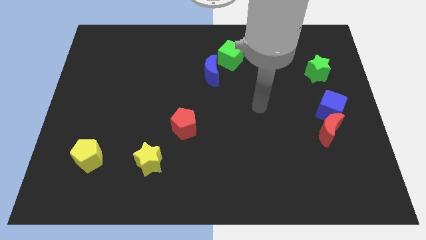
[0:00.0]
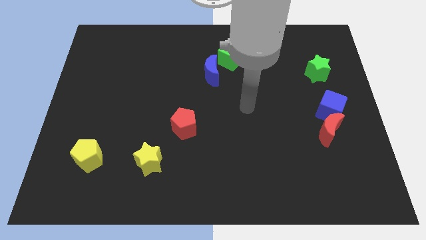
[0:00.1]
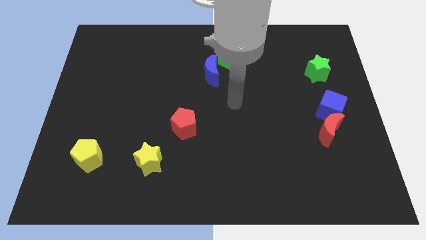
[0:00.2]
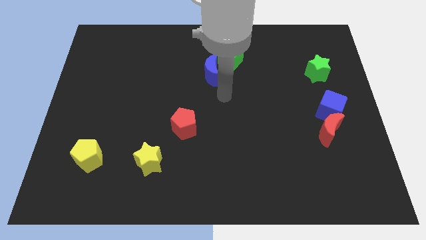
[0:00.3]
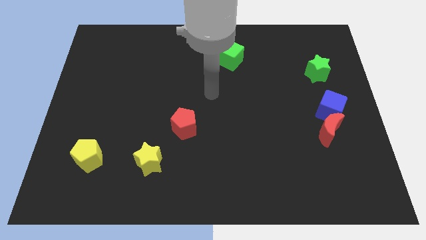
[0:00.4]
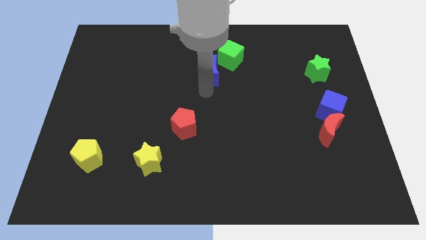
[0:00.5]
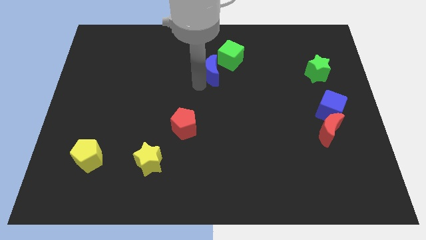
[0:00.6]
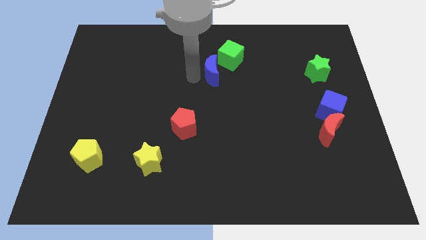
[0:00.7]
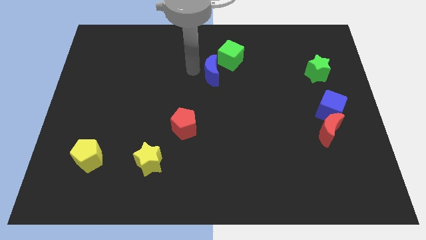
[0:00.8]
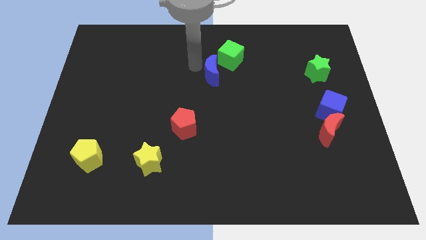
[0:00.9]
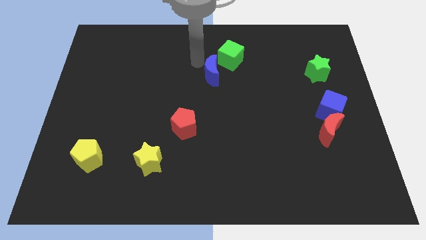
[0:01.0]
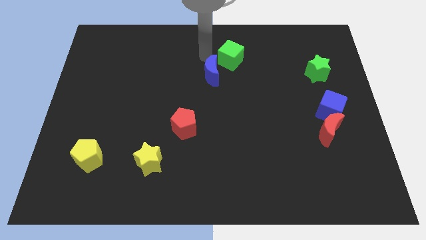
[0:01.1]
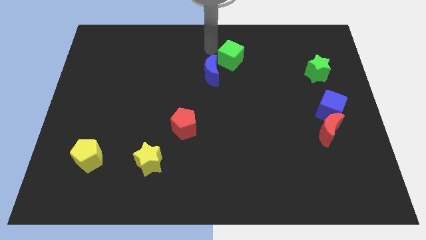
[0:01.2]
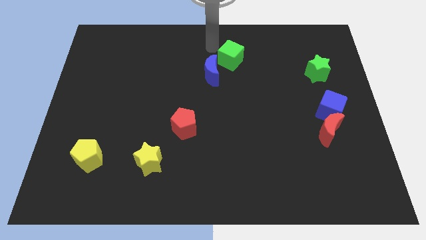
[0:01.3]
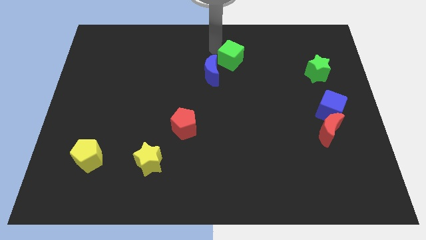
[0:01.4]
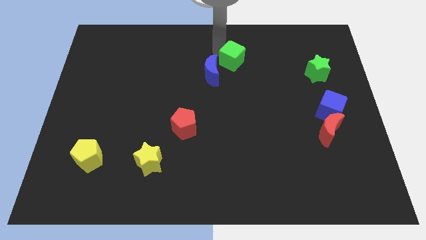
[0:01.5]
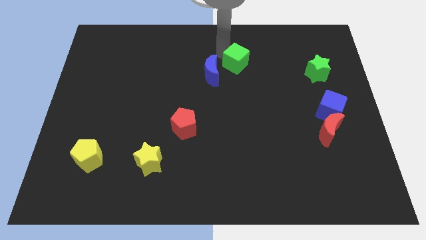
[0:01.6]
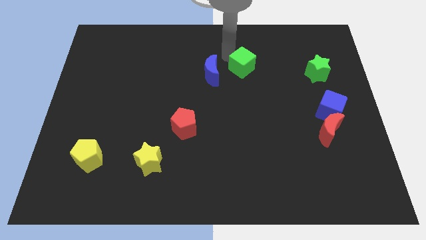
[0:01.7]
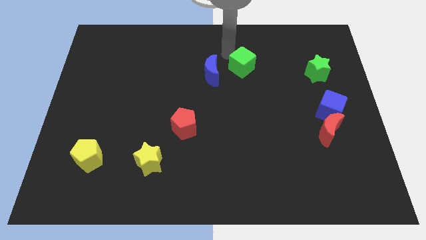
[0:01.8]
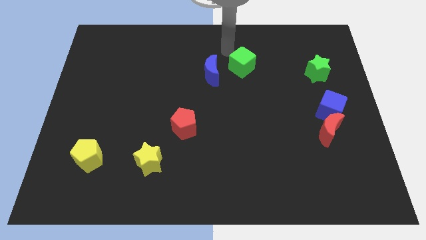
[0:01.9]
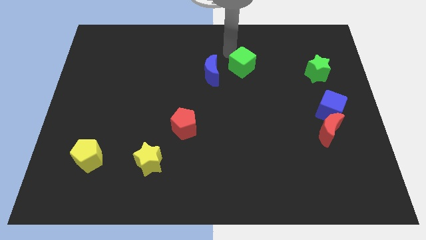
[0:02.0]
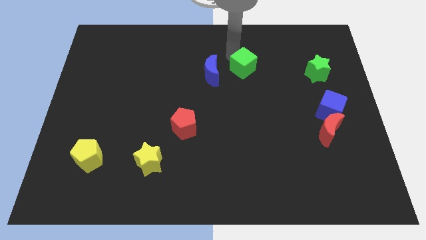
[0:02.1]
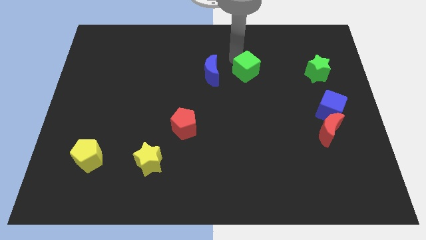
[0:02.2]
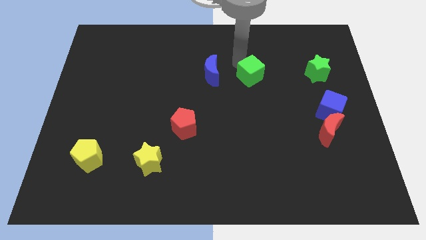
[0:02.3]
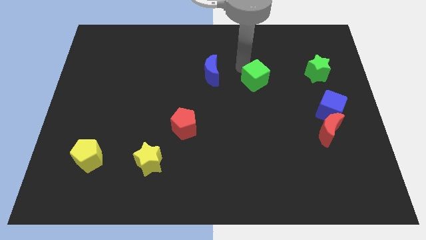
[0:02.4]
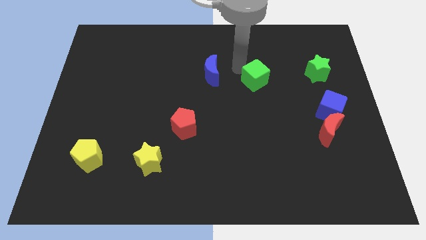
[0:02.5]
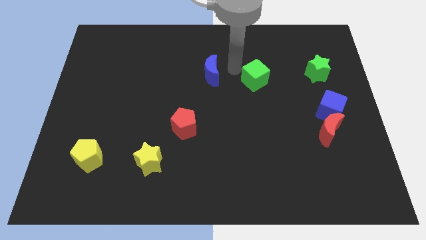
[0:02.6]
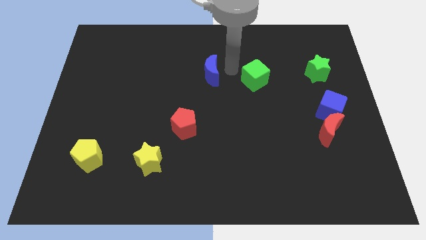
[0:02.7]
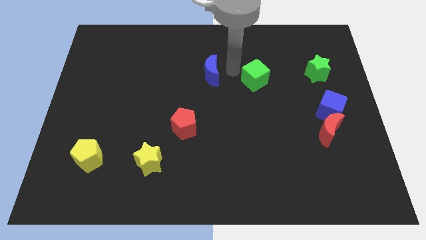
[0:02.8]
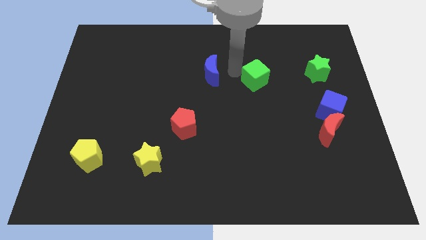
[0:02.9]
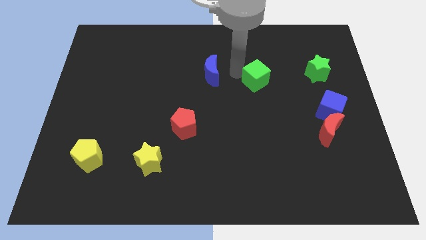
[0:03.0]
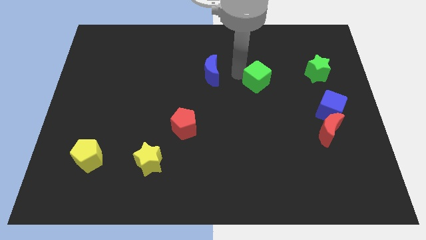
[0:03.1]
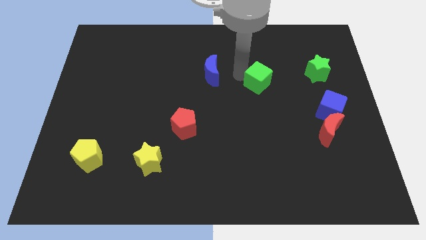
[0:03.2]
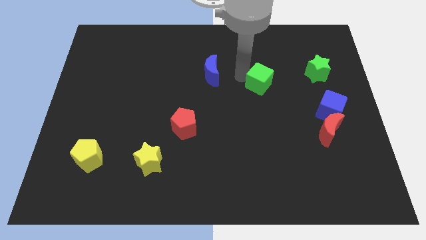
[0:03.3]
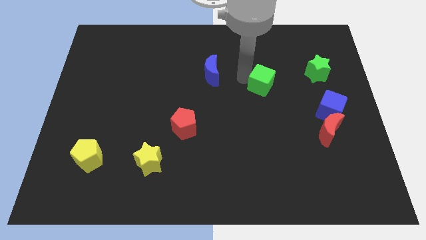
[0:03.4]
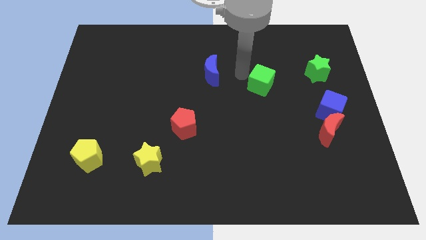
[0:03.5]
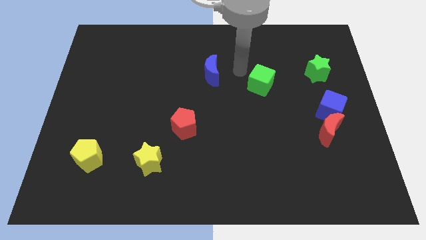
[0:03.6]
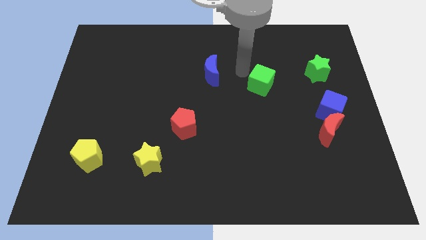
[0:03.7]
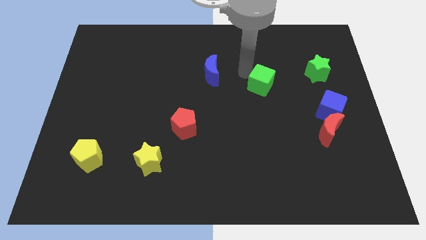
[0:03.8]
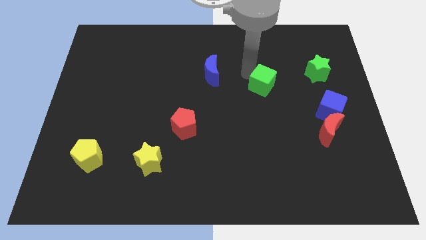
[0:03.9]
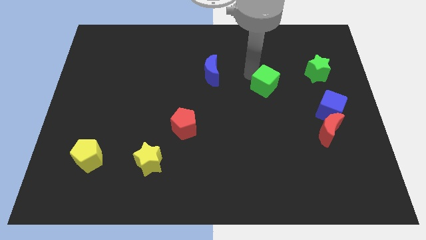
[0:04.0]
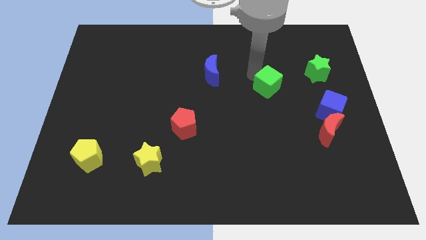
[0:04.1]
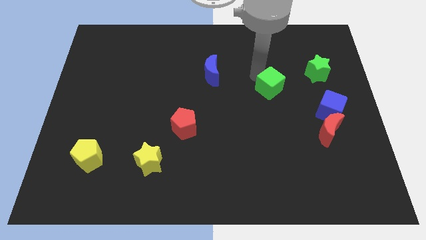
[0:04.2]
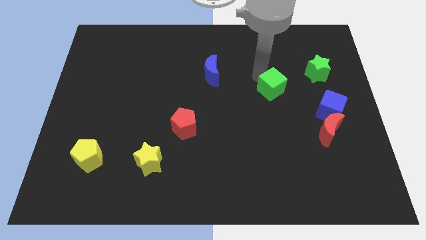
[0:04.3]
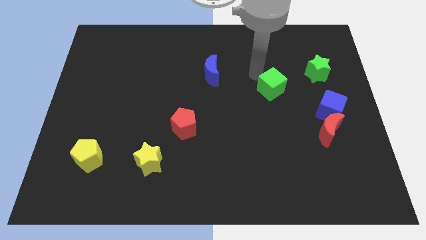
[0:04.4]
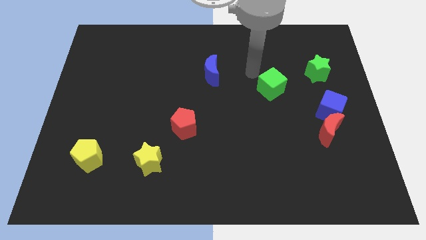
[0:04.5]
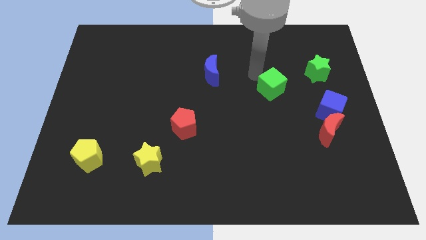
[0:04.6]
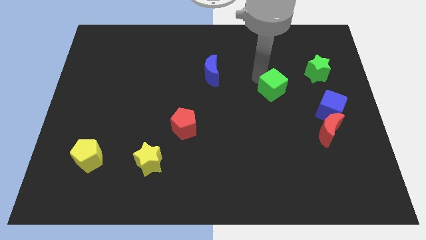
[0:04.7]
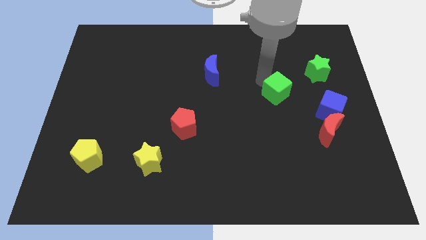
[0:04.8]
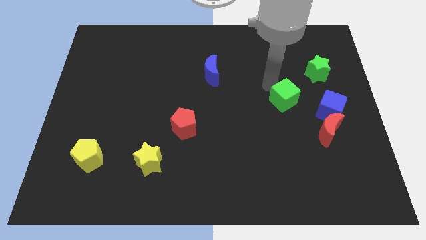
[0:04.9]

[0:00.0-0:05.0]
push the green cube to the top left side of the red moon
